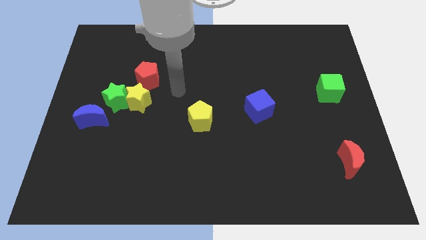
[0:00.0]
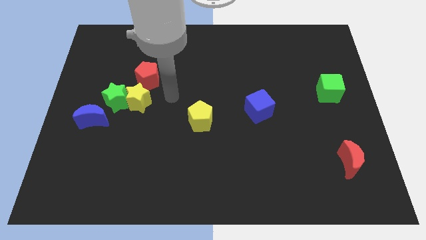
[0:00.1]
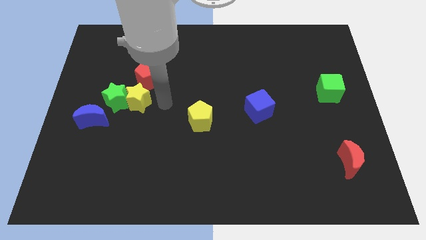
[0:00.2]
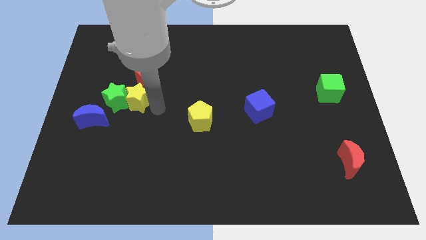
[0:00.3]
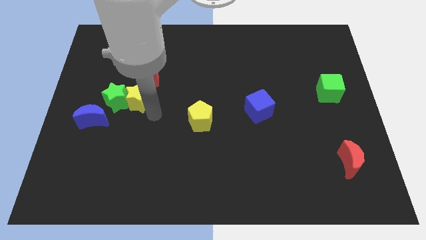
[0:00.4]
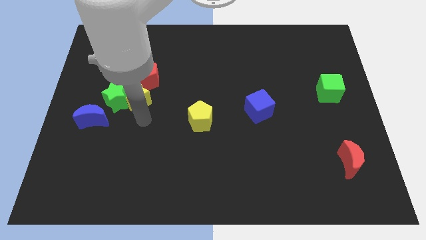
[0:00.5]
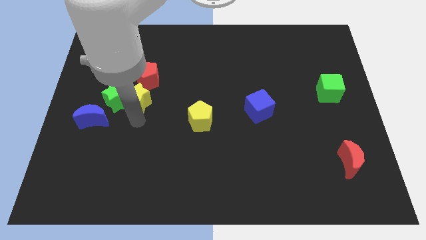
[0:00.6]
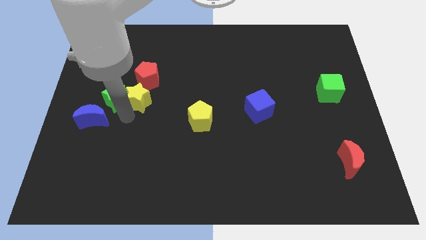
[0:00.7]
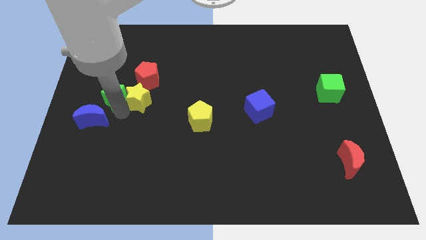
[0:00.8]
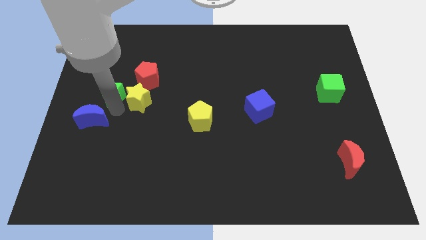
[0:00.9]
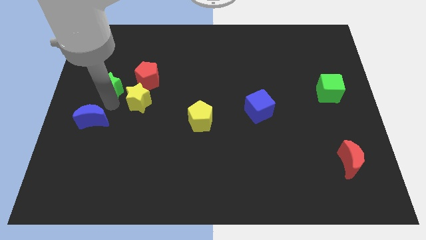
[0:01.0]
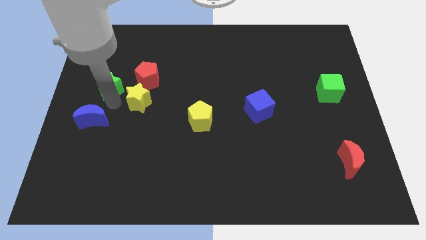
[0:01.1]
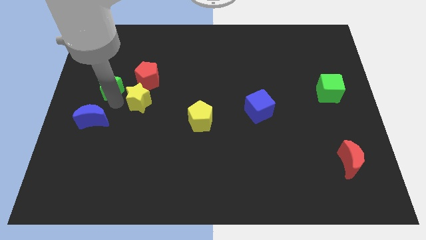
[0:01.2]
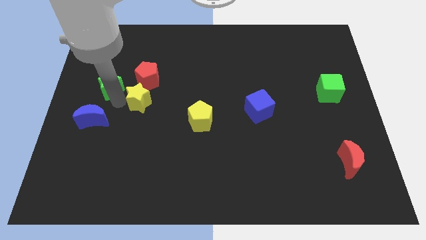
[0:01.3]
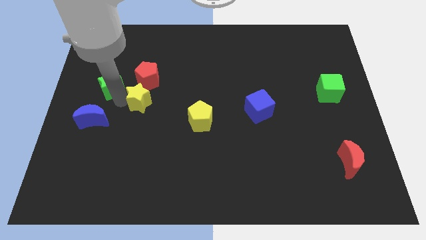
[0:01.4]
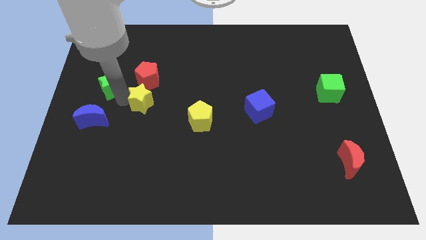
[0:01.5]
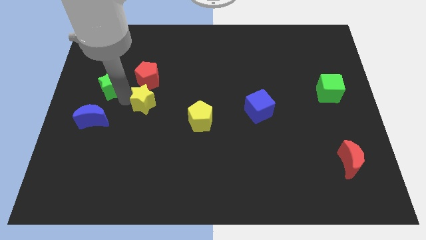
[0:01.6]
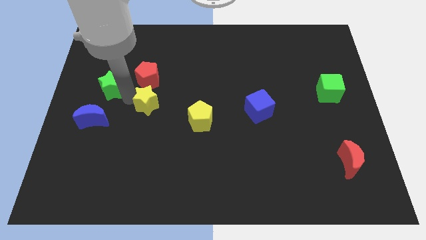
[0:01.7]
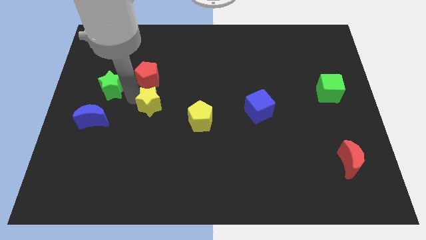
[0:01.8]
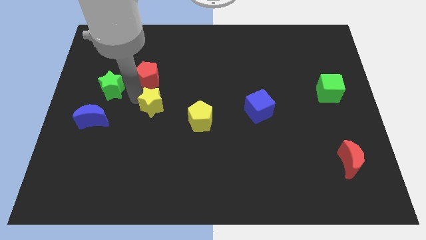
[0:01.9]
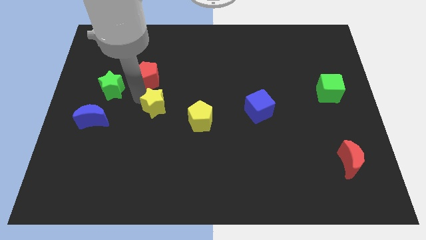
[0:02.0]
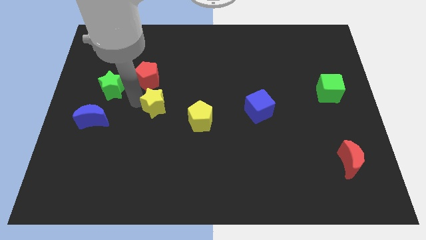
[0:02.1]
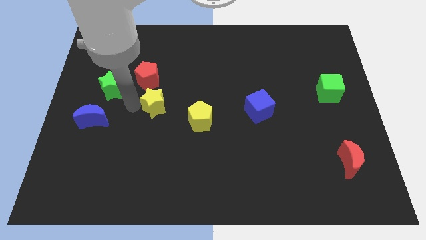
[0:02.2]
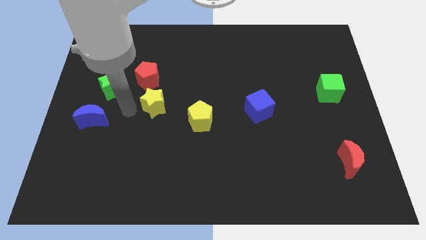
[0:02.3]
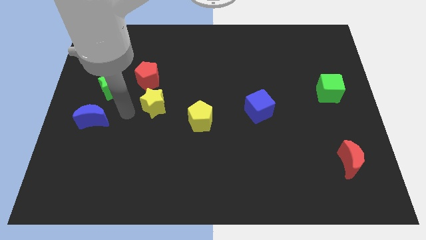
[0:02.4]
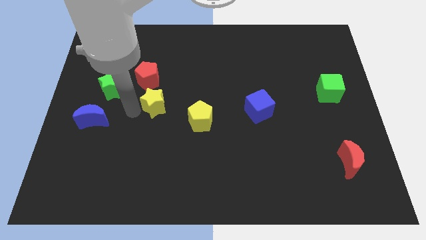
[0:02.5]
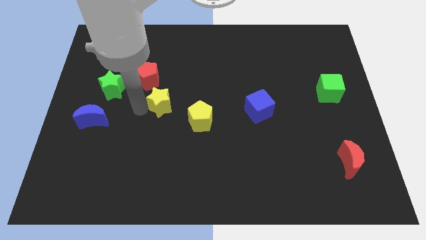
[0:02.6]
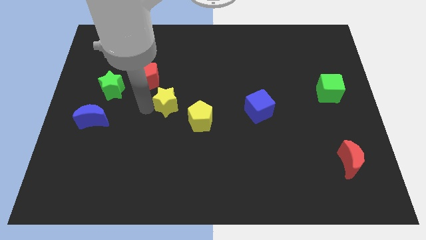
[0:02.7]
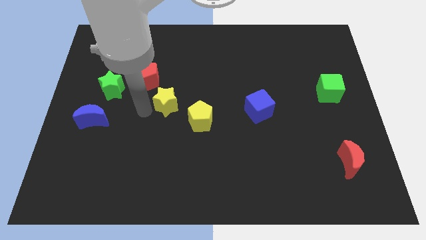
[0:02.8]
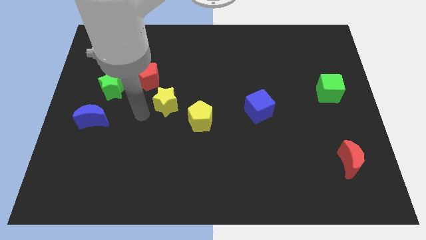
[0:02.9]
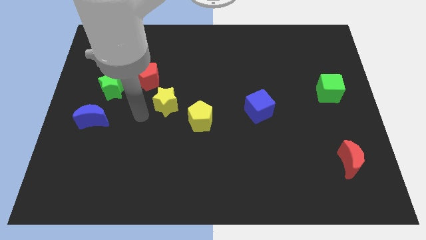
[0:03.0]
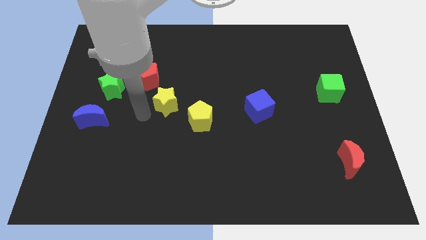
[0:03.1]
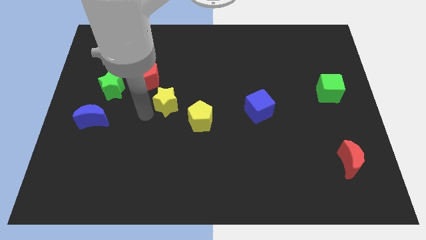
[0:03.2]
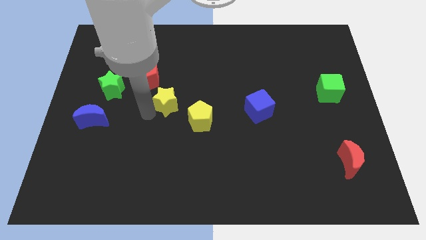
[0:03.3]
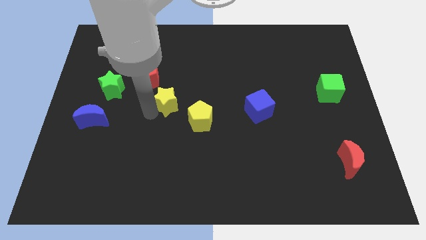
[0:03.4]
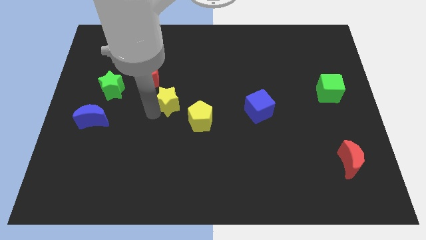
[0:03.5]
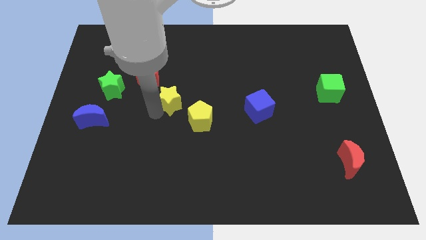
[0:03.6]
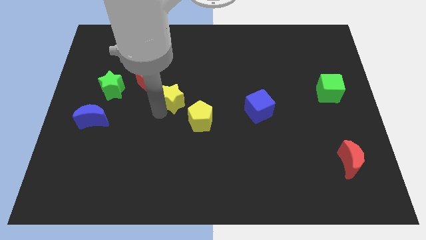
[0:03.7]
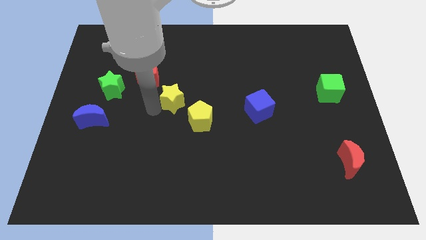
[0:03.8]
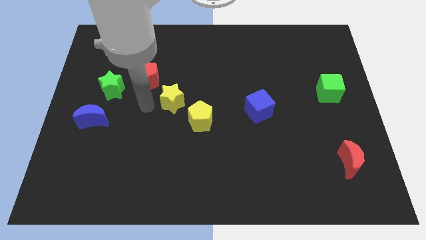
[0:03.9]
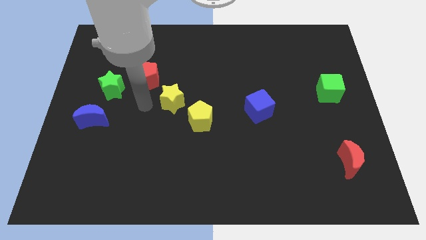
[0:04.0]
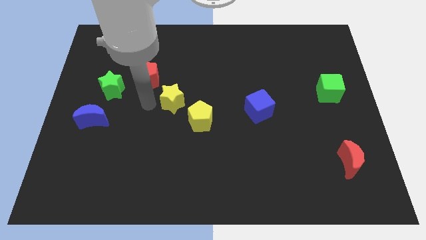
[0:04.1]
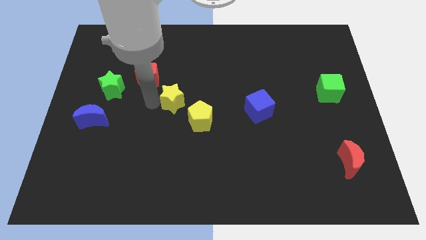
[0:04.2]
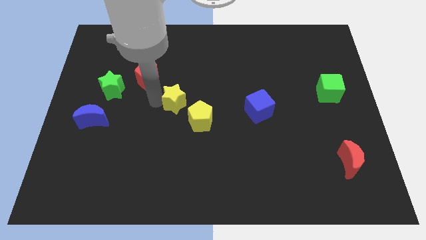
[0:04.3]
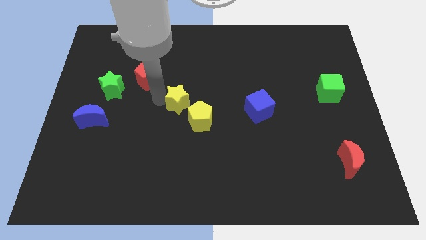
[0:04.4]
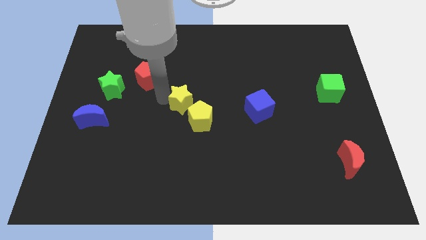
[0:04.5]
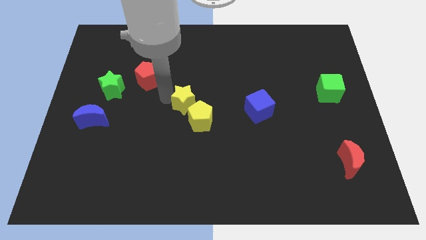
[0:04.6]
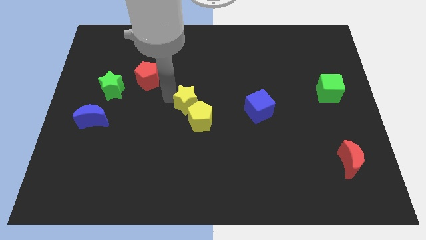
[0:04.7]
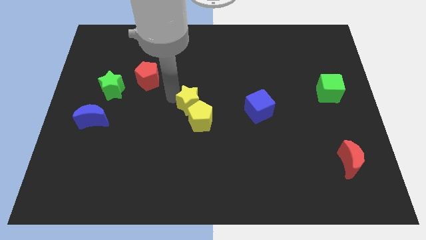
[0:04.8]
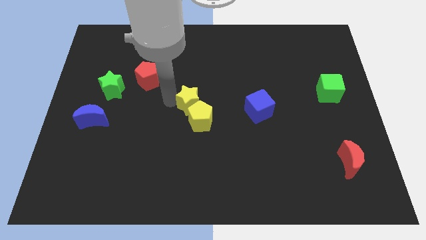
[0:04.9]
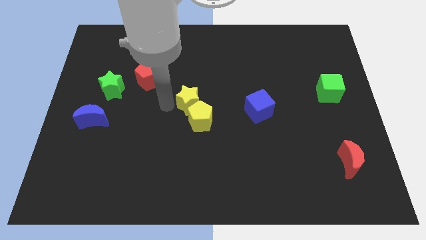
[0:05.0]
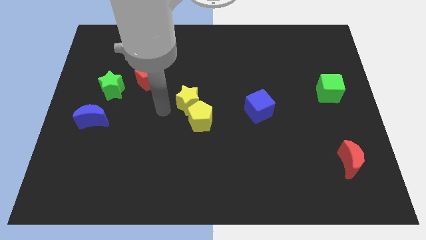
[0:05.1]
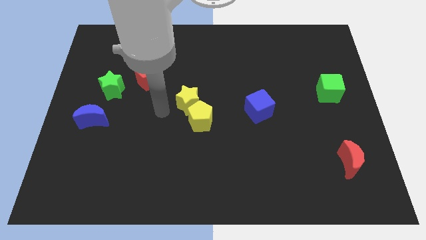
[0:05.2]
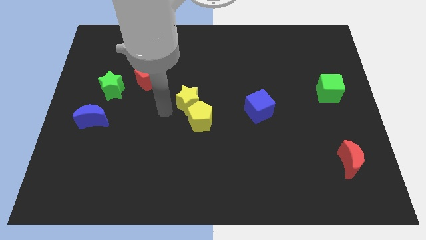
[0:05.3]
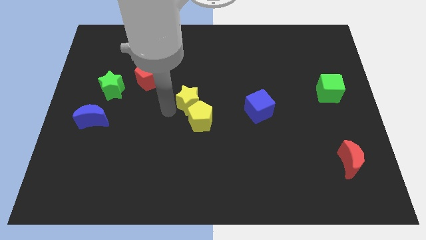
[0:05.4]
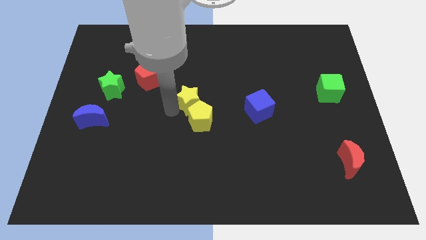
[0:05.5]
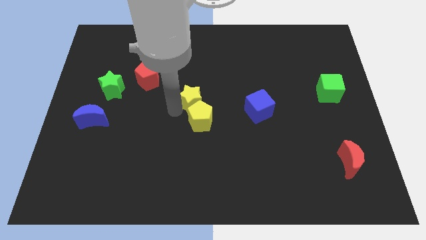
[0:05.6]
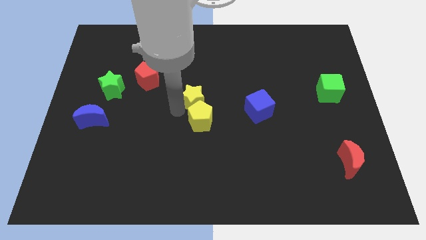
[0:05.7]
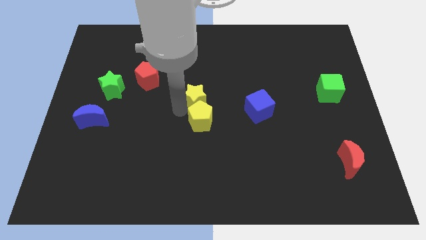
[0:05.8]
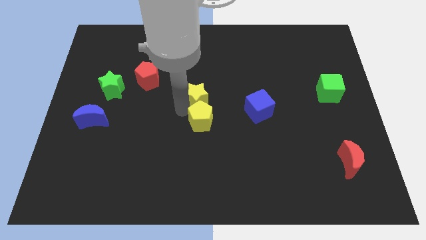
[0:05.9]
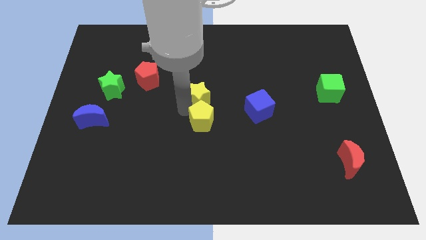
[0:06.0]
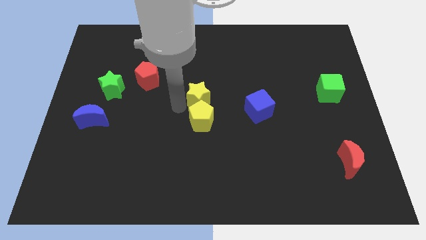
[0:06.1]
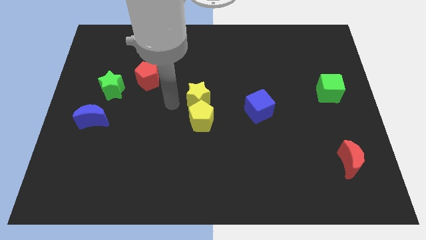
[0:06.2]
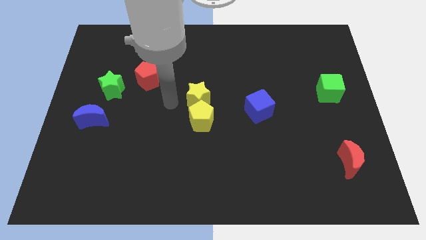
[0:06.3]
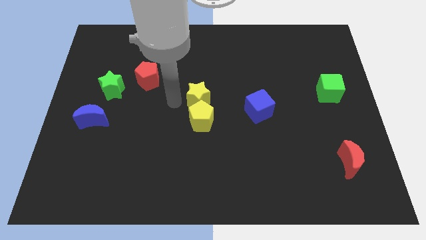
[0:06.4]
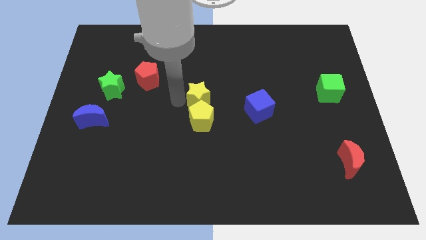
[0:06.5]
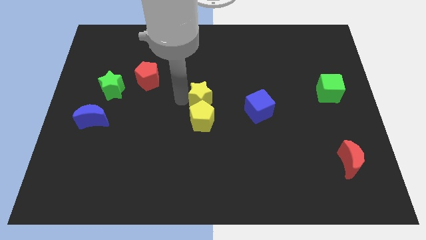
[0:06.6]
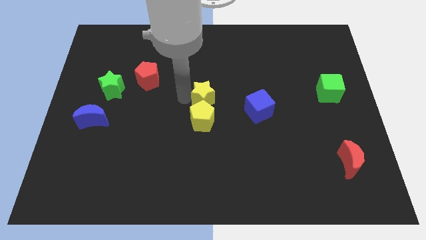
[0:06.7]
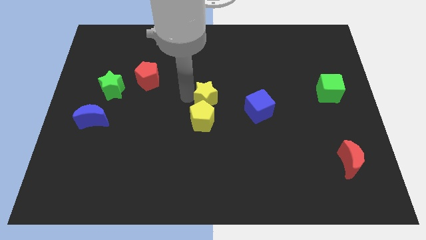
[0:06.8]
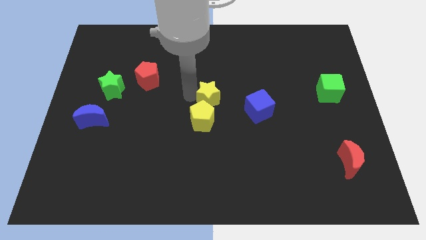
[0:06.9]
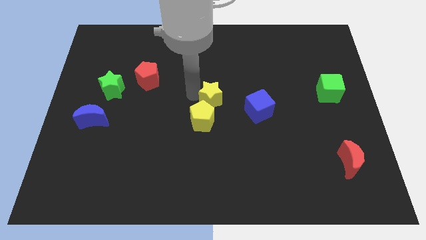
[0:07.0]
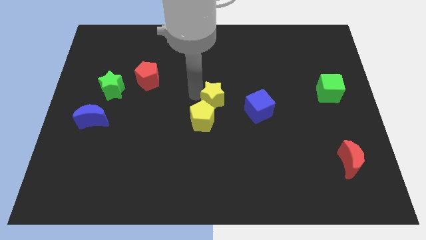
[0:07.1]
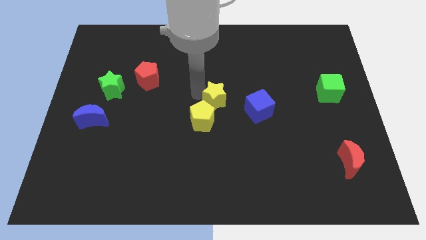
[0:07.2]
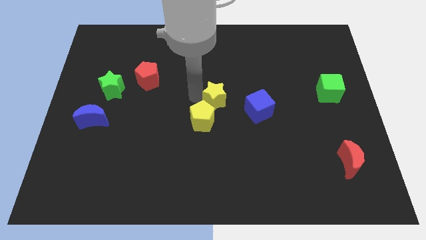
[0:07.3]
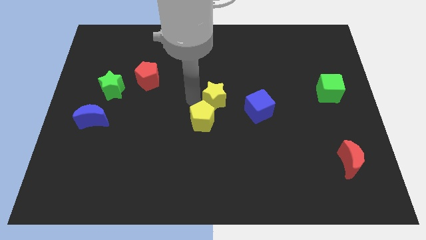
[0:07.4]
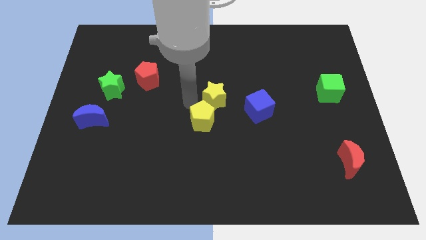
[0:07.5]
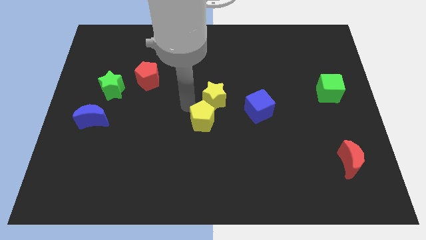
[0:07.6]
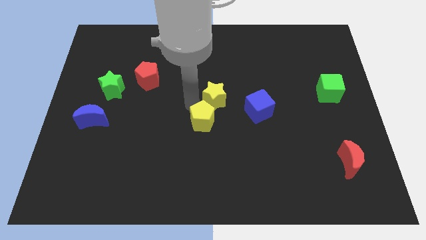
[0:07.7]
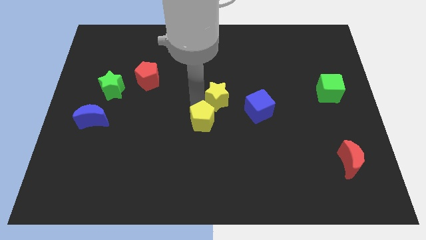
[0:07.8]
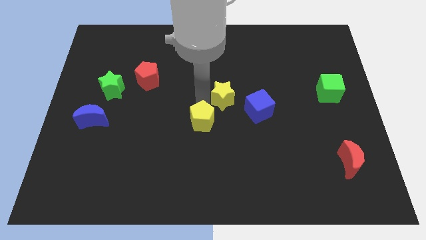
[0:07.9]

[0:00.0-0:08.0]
push the yellow star to the right

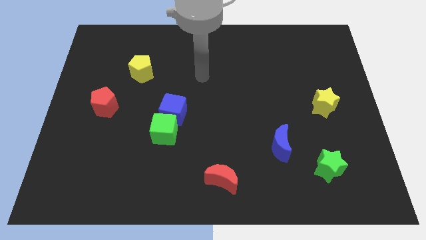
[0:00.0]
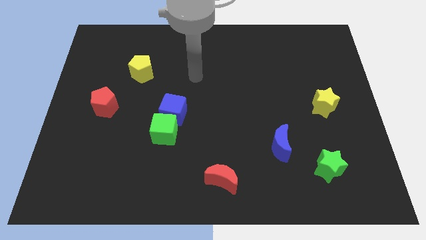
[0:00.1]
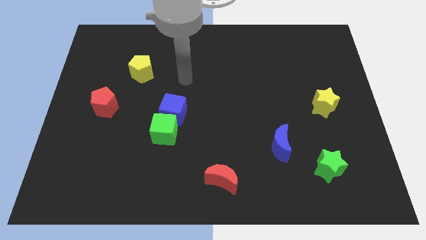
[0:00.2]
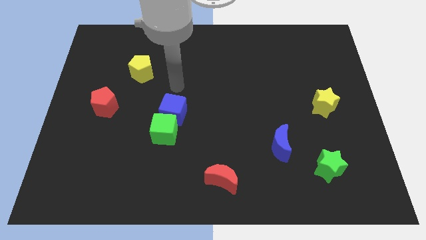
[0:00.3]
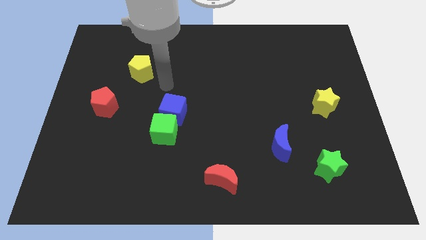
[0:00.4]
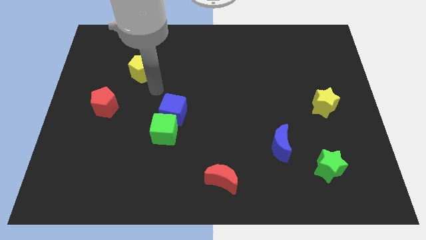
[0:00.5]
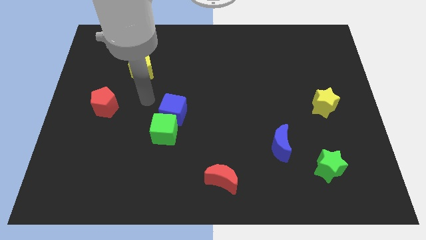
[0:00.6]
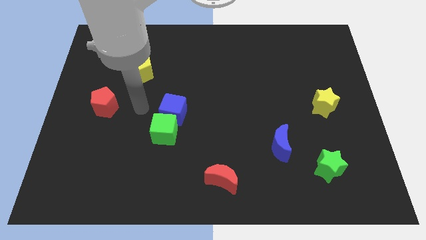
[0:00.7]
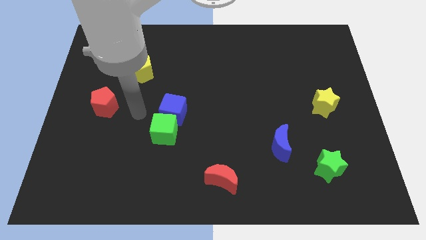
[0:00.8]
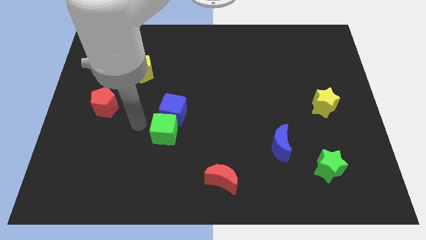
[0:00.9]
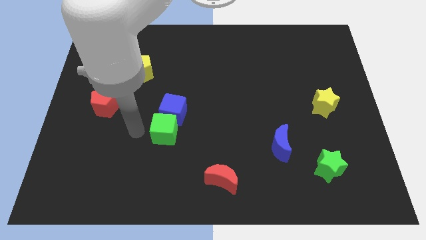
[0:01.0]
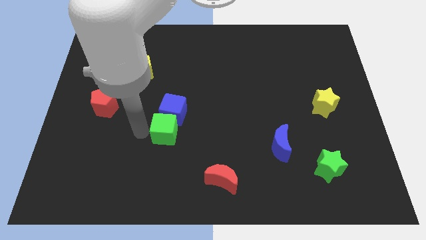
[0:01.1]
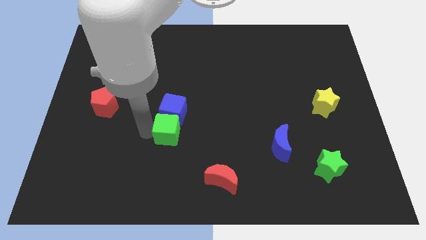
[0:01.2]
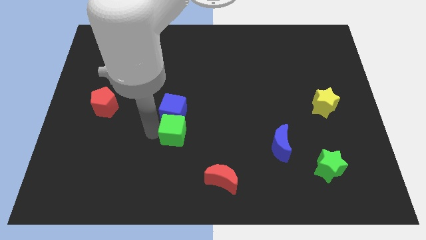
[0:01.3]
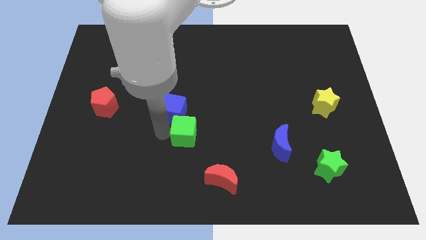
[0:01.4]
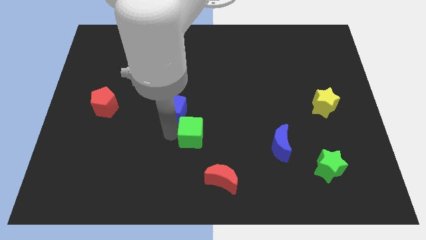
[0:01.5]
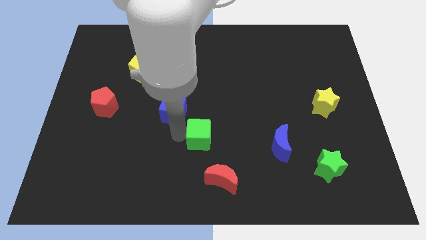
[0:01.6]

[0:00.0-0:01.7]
slide the green cube to the right a little
